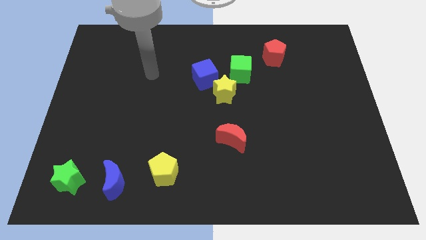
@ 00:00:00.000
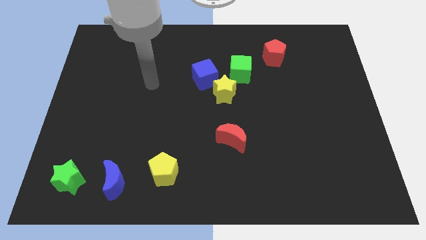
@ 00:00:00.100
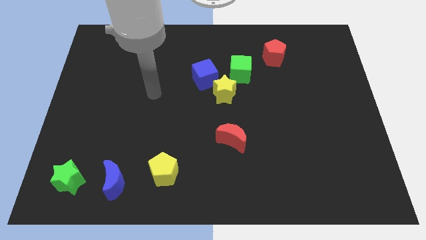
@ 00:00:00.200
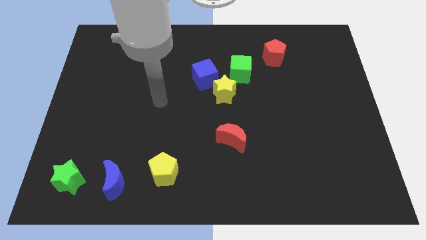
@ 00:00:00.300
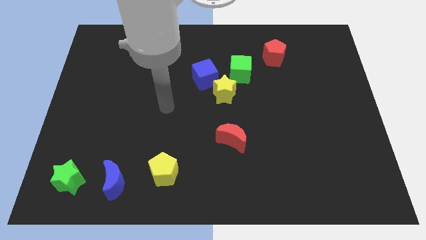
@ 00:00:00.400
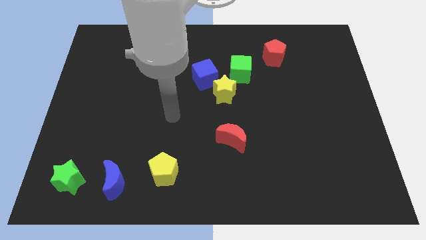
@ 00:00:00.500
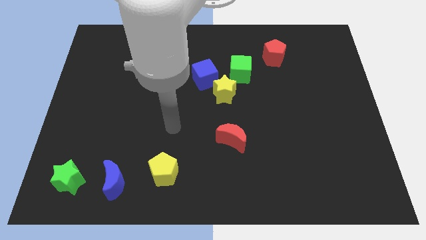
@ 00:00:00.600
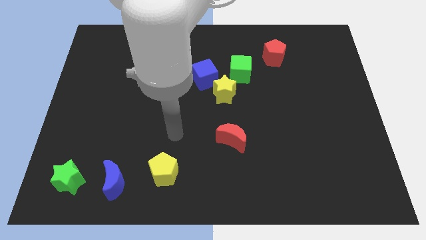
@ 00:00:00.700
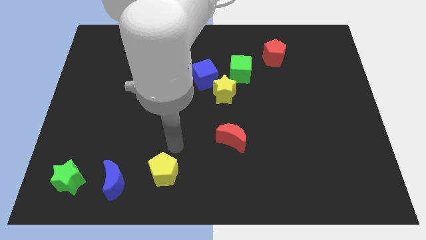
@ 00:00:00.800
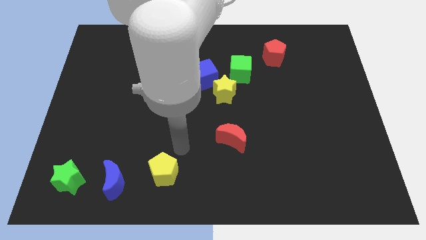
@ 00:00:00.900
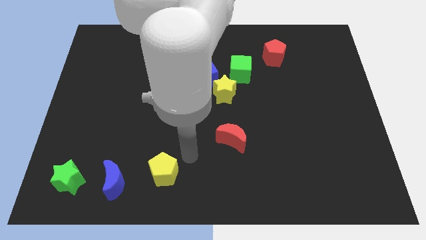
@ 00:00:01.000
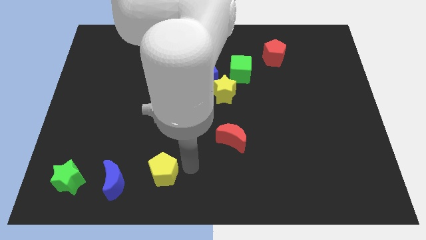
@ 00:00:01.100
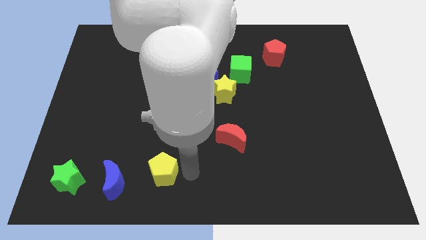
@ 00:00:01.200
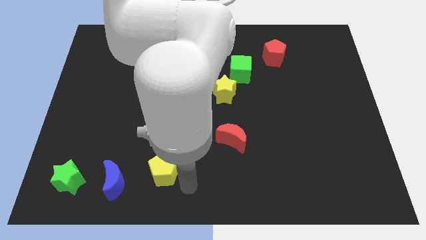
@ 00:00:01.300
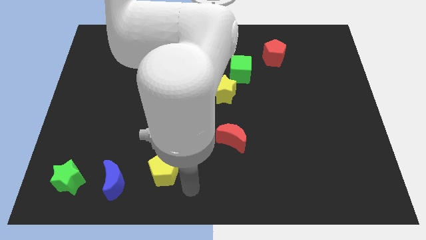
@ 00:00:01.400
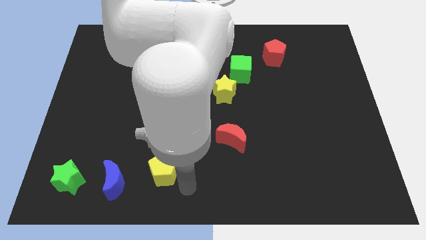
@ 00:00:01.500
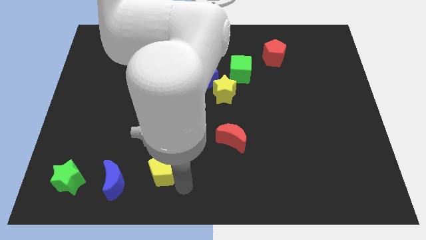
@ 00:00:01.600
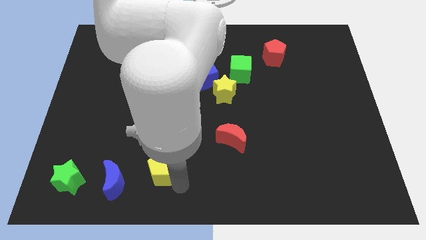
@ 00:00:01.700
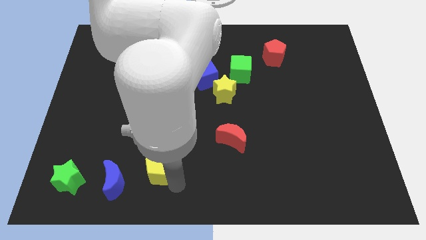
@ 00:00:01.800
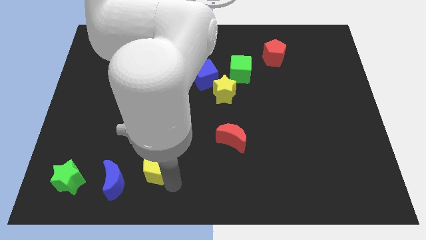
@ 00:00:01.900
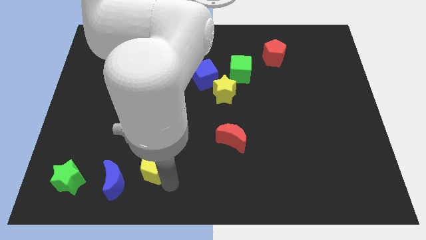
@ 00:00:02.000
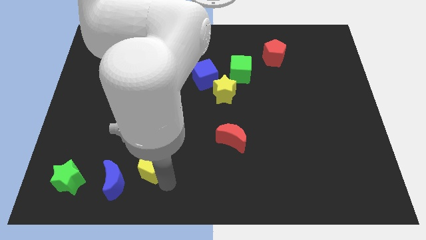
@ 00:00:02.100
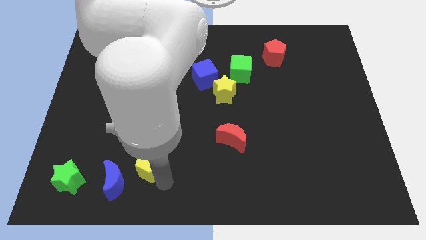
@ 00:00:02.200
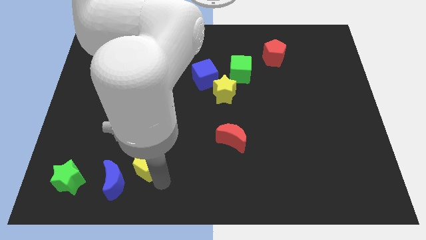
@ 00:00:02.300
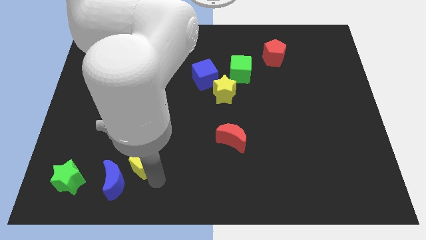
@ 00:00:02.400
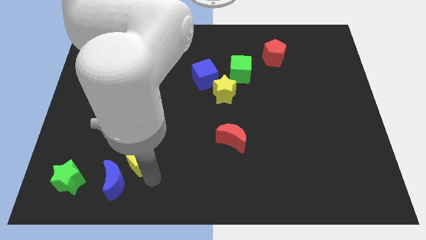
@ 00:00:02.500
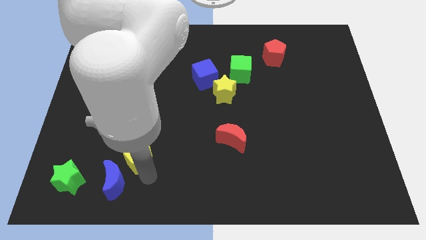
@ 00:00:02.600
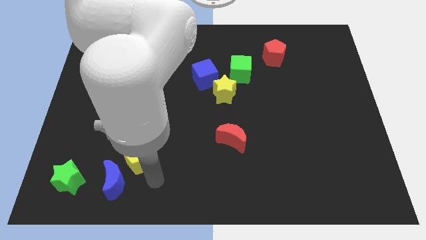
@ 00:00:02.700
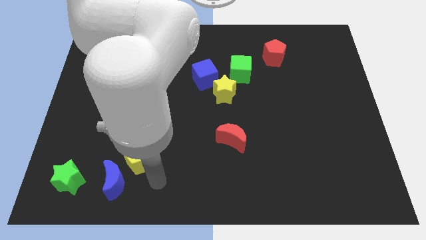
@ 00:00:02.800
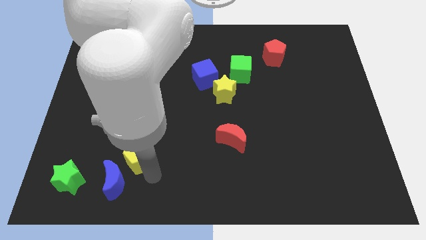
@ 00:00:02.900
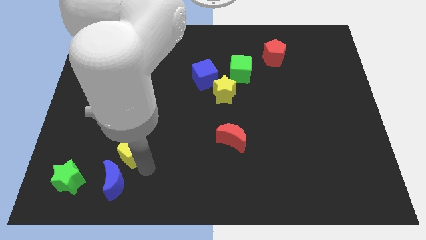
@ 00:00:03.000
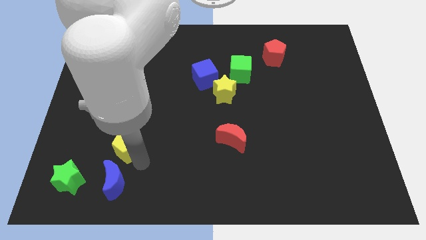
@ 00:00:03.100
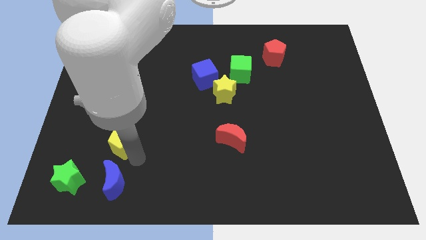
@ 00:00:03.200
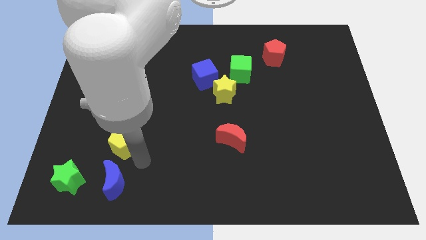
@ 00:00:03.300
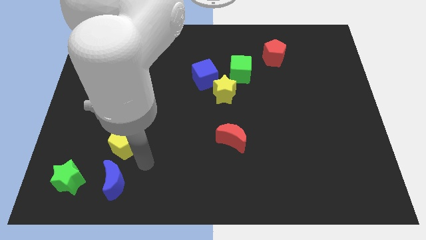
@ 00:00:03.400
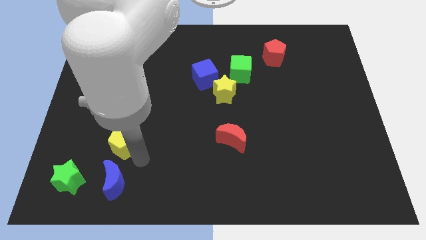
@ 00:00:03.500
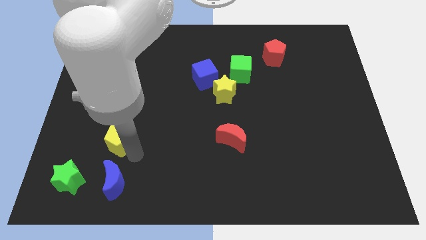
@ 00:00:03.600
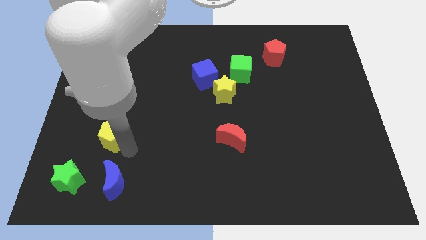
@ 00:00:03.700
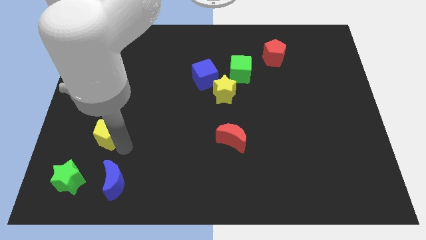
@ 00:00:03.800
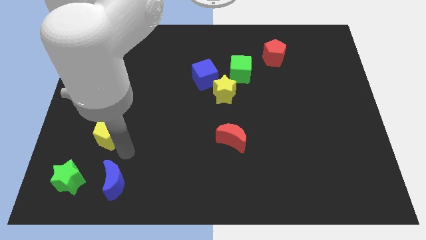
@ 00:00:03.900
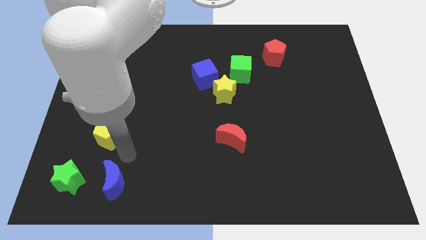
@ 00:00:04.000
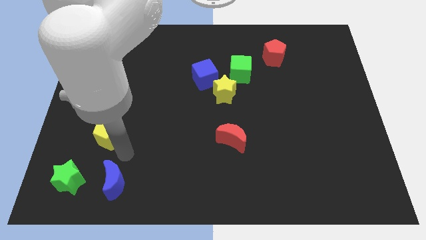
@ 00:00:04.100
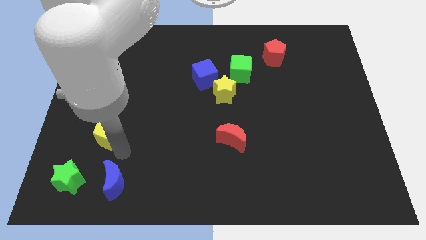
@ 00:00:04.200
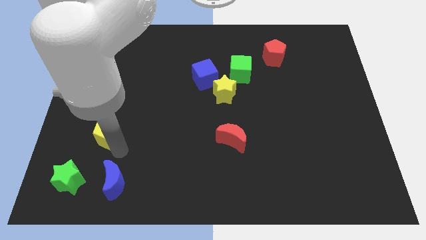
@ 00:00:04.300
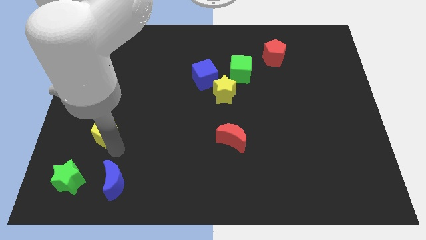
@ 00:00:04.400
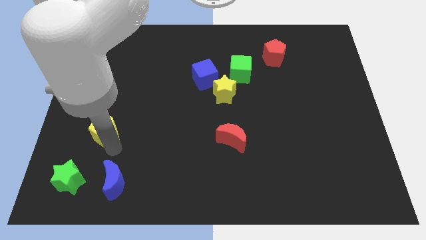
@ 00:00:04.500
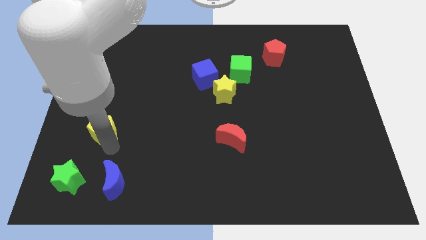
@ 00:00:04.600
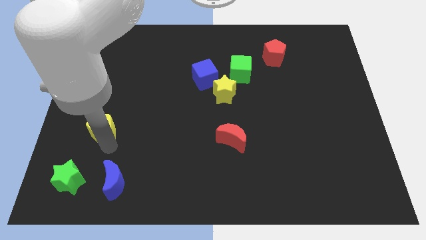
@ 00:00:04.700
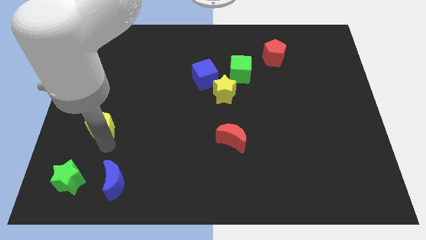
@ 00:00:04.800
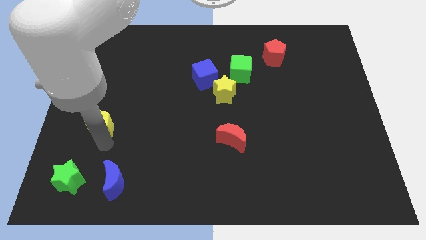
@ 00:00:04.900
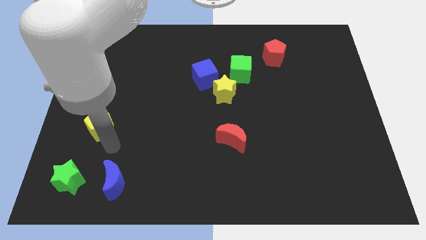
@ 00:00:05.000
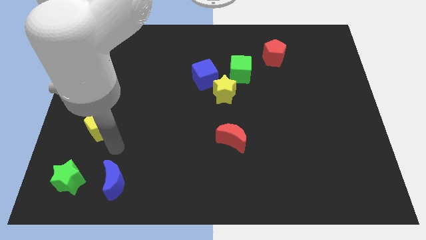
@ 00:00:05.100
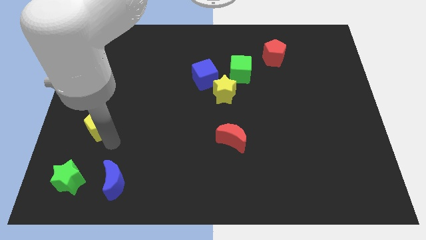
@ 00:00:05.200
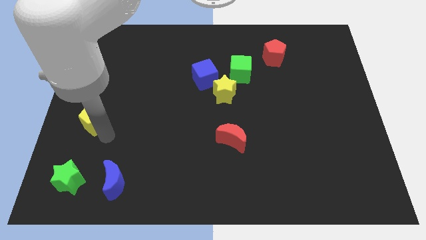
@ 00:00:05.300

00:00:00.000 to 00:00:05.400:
slide the yellow pentagon to the center left

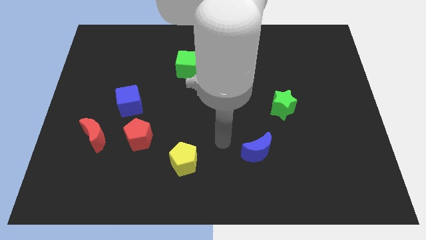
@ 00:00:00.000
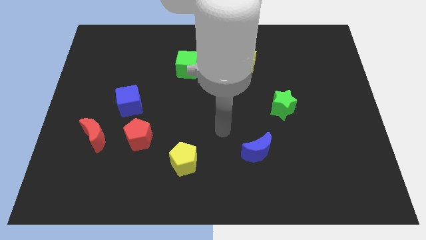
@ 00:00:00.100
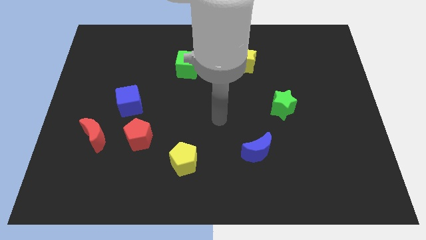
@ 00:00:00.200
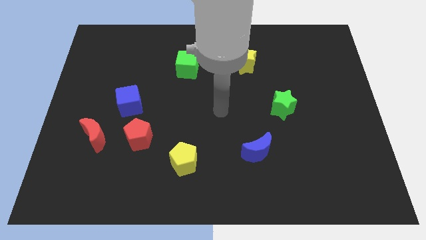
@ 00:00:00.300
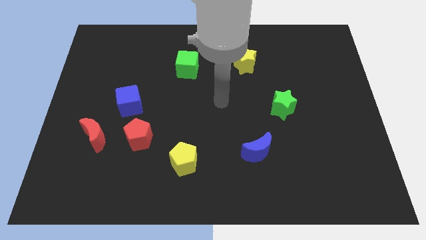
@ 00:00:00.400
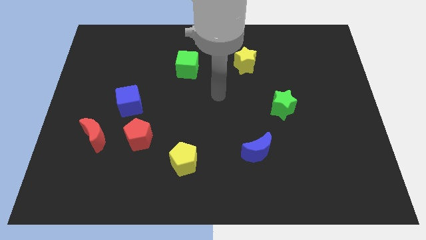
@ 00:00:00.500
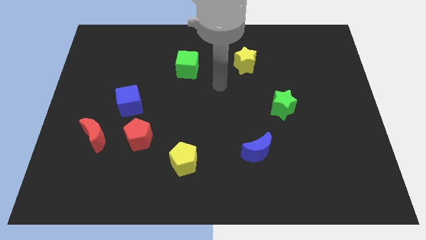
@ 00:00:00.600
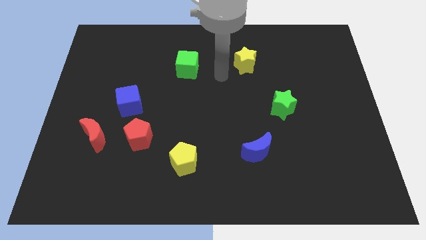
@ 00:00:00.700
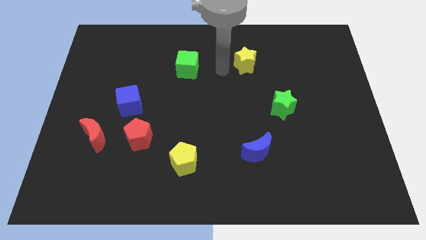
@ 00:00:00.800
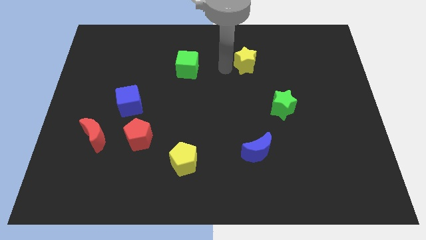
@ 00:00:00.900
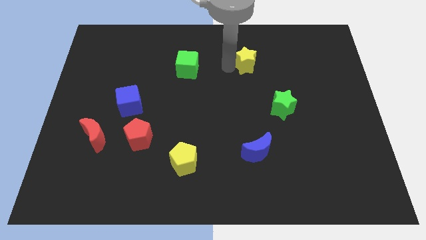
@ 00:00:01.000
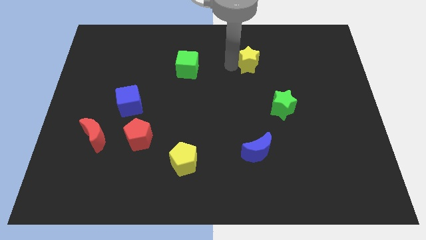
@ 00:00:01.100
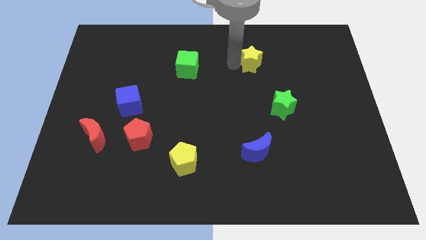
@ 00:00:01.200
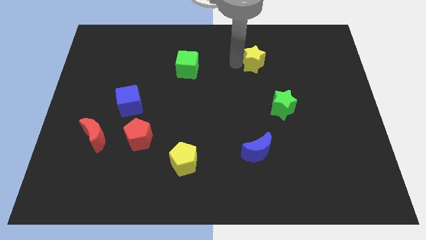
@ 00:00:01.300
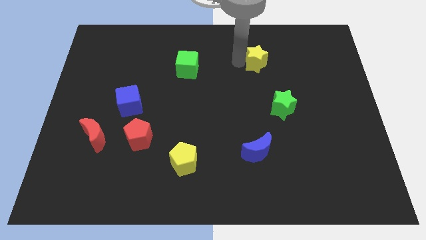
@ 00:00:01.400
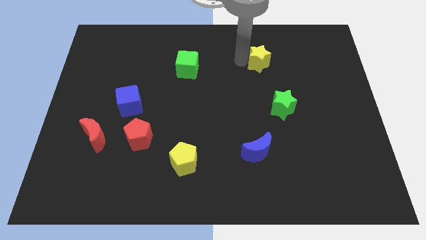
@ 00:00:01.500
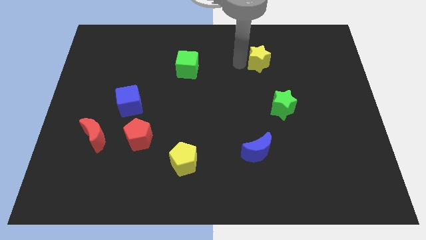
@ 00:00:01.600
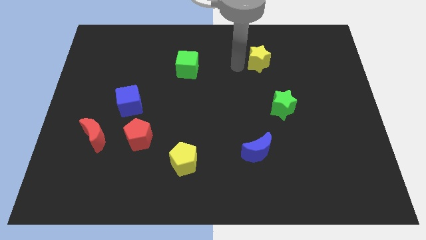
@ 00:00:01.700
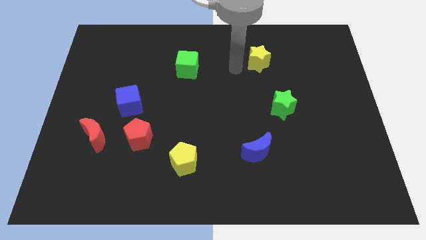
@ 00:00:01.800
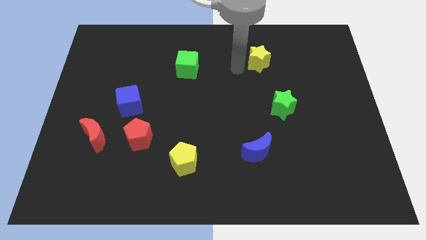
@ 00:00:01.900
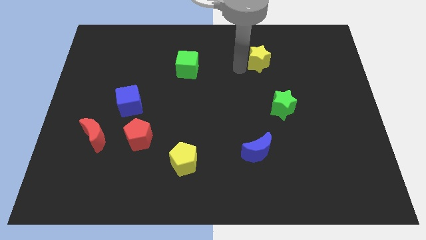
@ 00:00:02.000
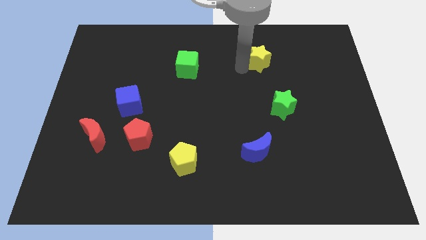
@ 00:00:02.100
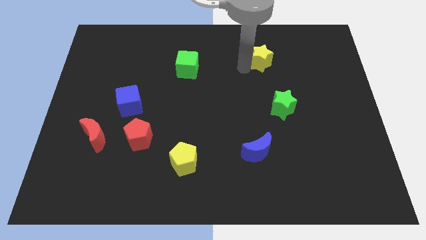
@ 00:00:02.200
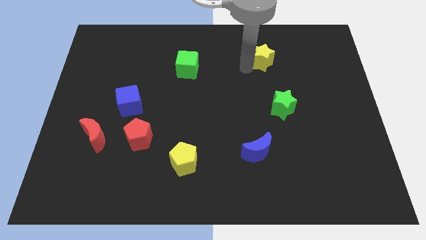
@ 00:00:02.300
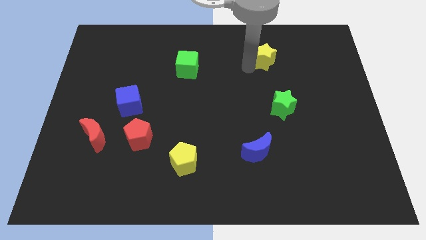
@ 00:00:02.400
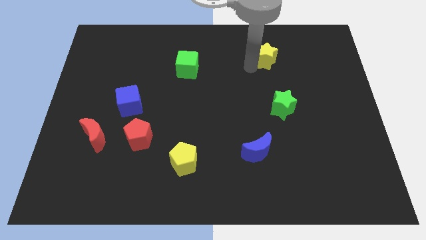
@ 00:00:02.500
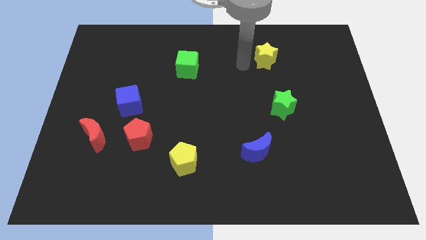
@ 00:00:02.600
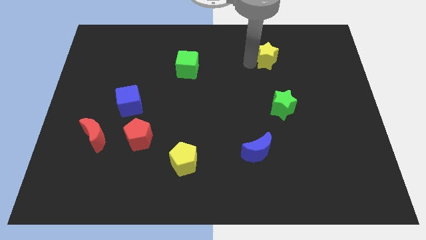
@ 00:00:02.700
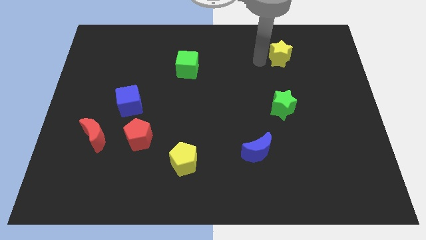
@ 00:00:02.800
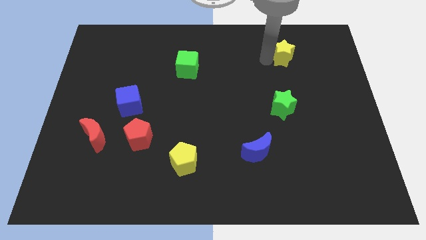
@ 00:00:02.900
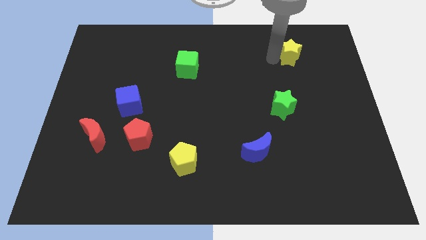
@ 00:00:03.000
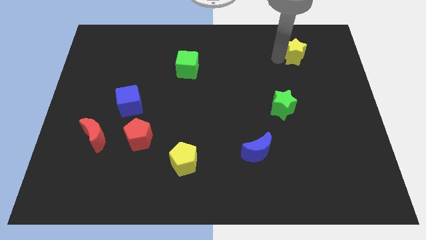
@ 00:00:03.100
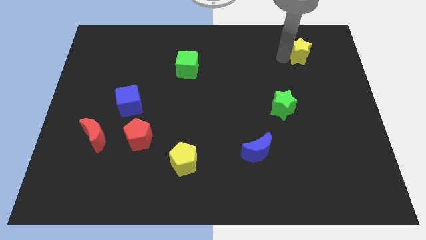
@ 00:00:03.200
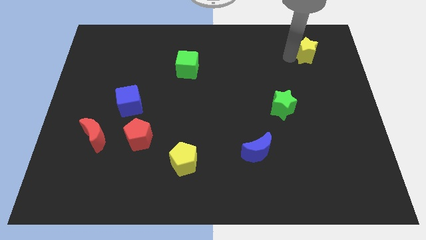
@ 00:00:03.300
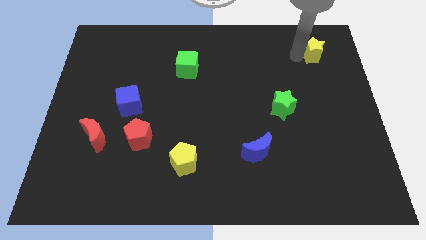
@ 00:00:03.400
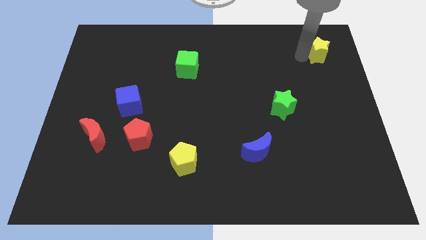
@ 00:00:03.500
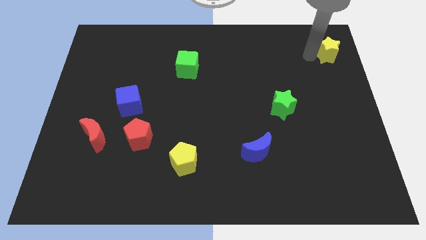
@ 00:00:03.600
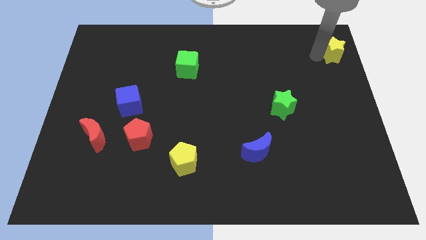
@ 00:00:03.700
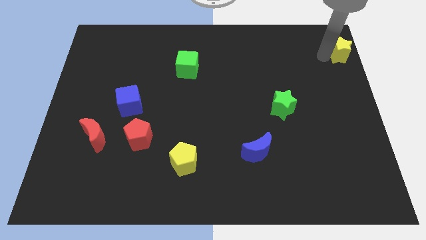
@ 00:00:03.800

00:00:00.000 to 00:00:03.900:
push the yellow star to the upper right corner
